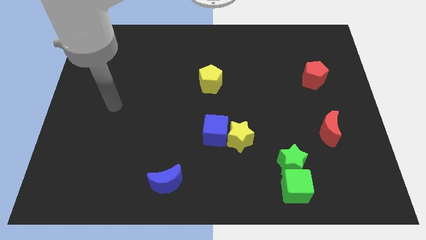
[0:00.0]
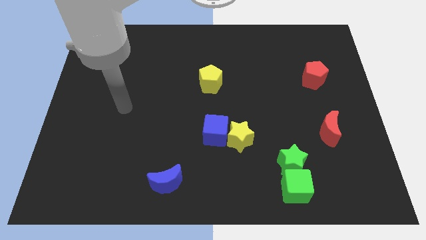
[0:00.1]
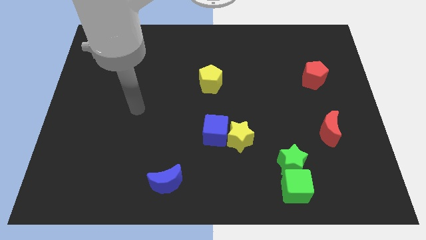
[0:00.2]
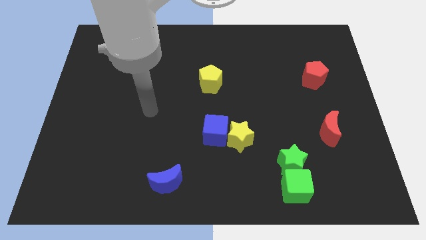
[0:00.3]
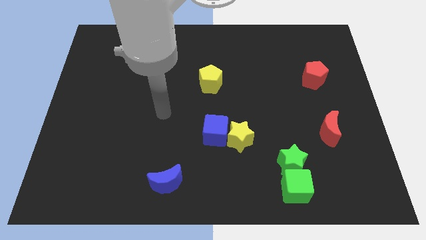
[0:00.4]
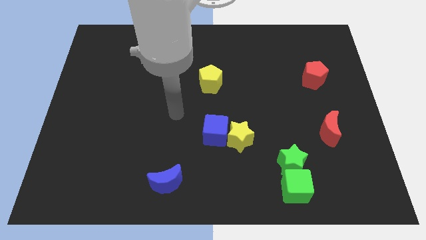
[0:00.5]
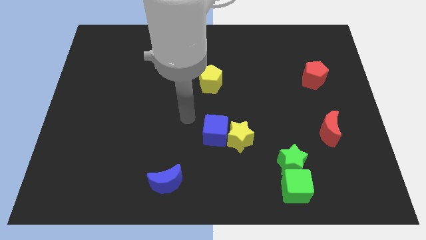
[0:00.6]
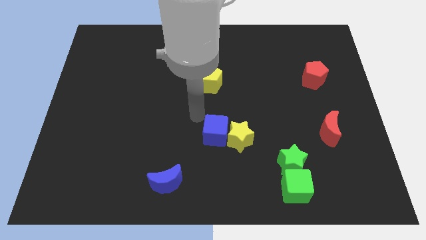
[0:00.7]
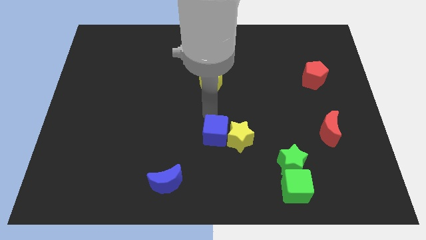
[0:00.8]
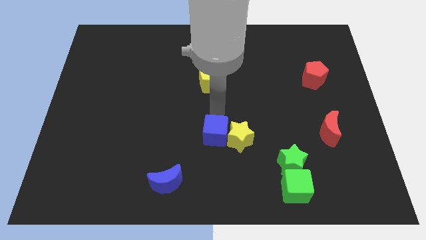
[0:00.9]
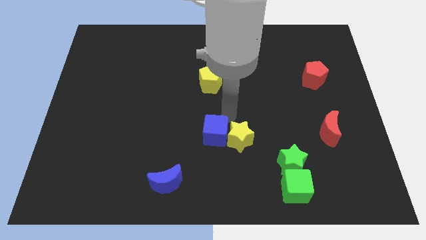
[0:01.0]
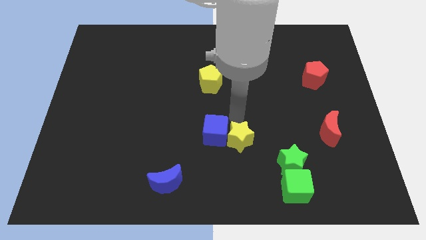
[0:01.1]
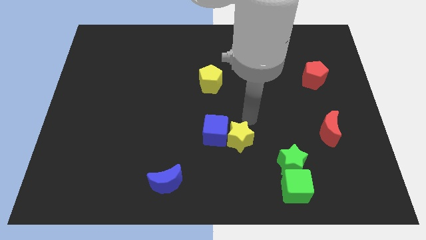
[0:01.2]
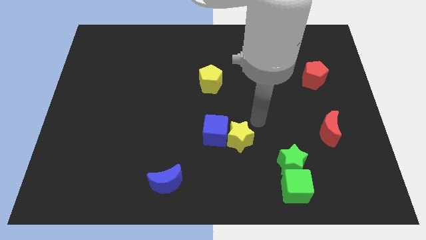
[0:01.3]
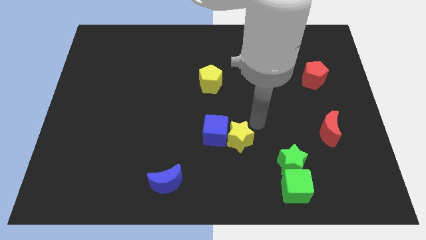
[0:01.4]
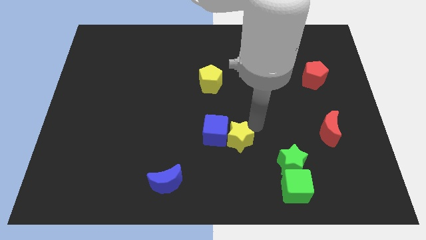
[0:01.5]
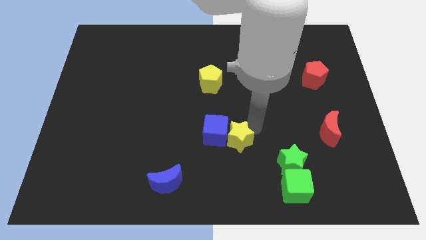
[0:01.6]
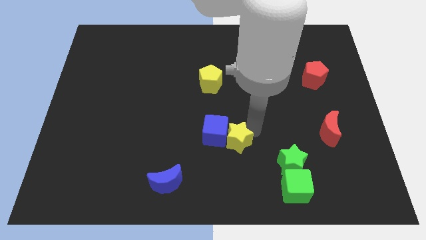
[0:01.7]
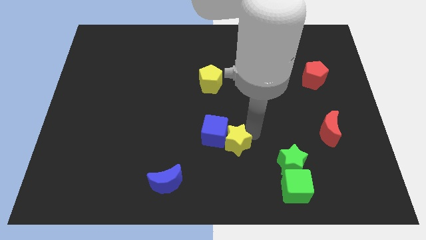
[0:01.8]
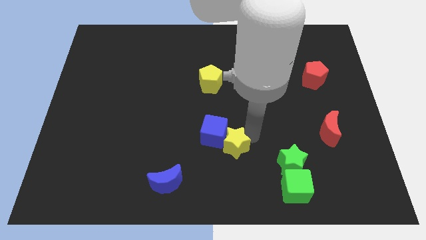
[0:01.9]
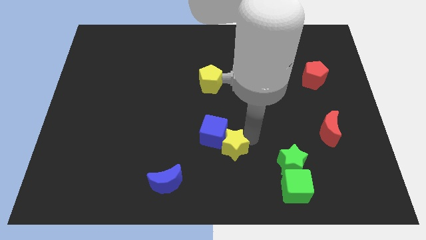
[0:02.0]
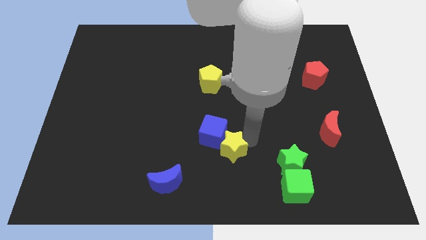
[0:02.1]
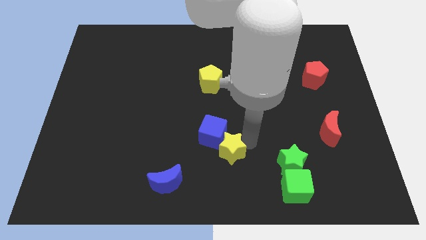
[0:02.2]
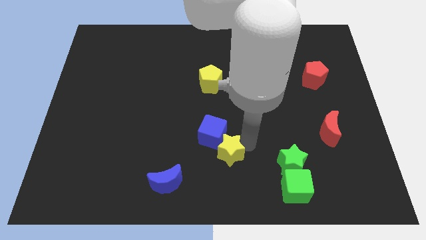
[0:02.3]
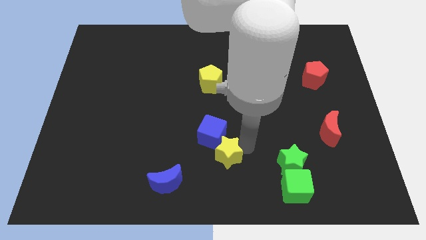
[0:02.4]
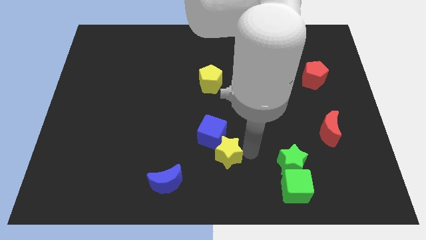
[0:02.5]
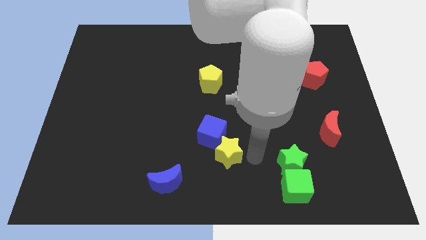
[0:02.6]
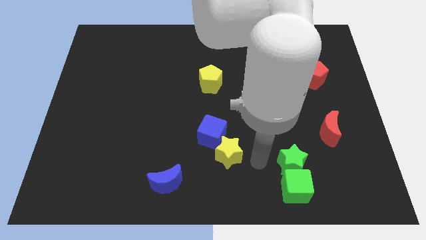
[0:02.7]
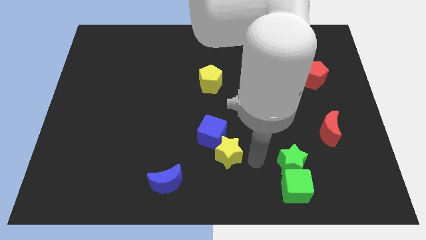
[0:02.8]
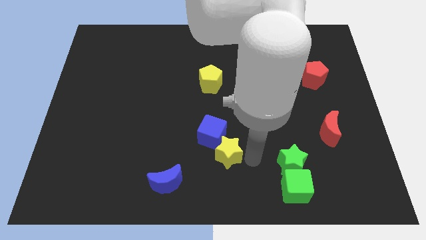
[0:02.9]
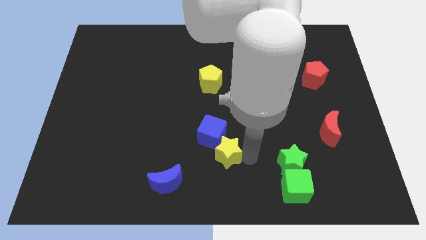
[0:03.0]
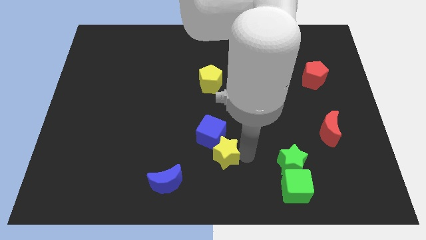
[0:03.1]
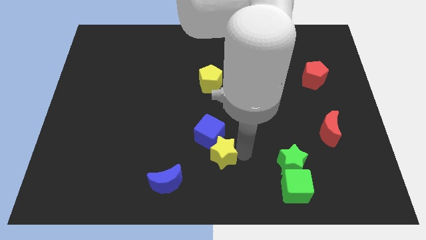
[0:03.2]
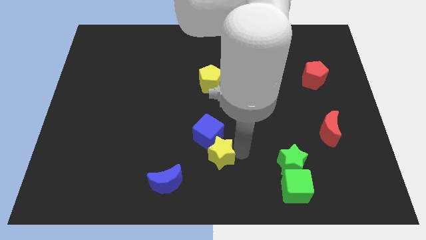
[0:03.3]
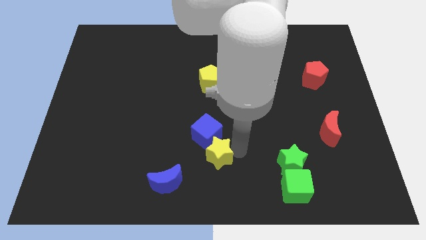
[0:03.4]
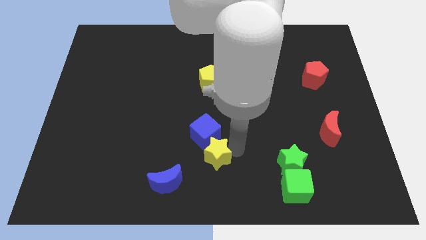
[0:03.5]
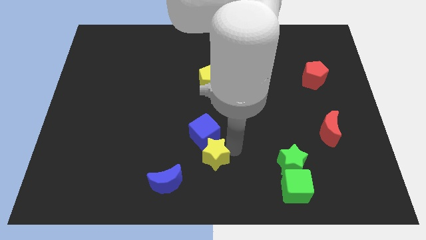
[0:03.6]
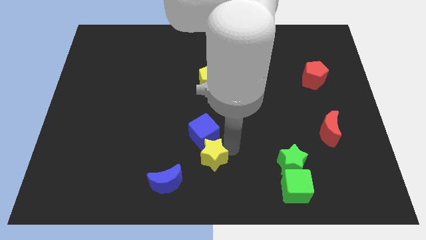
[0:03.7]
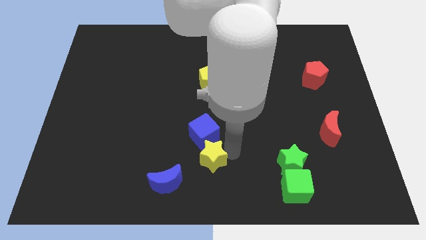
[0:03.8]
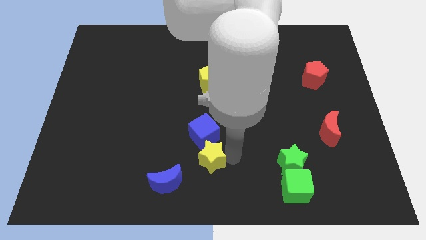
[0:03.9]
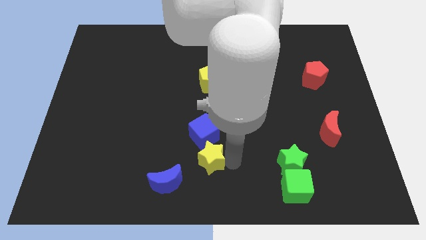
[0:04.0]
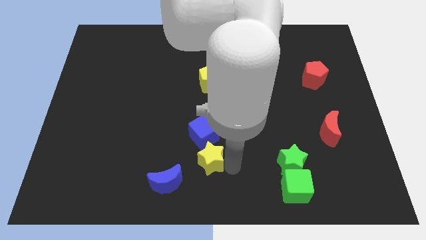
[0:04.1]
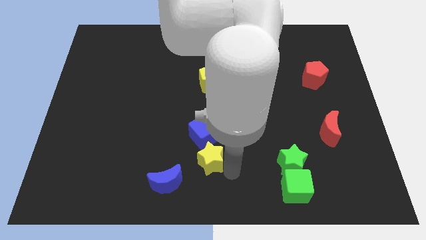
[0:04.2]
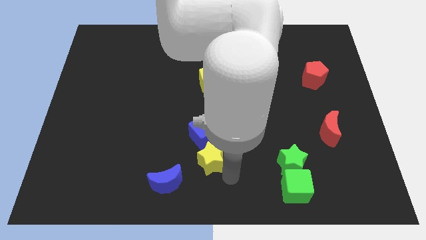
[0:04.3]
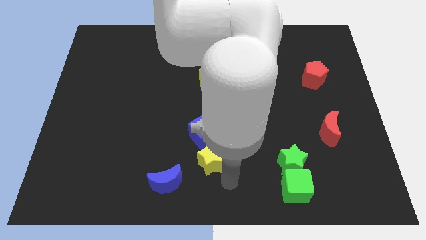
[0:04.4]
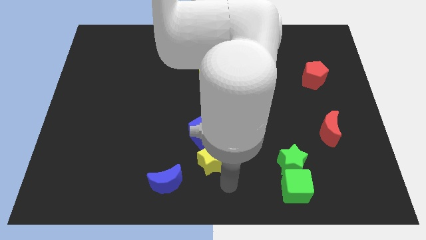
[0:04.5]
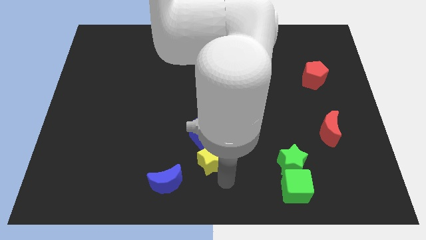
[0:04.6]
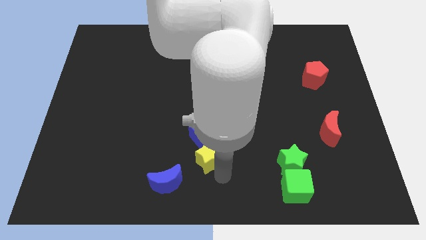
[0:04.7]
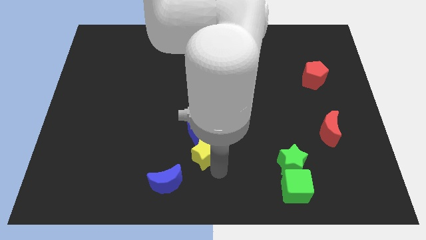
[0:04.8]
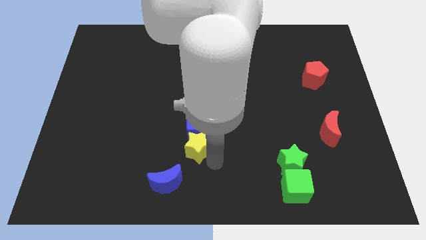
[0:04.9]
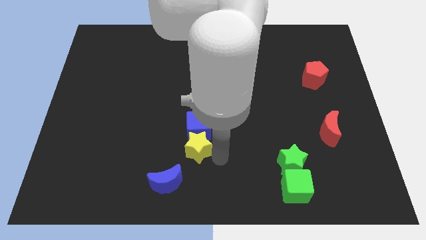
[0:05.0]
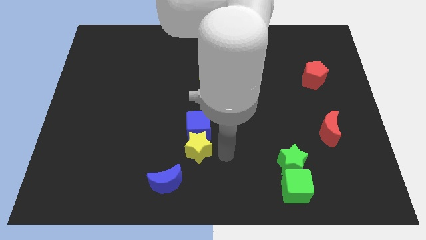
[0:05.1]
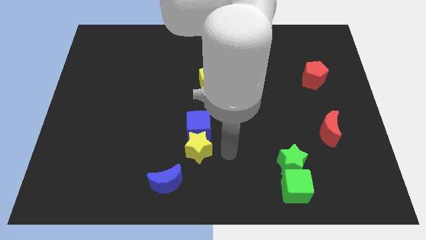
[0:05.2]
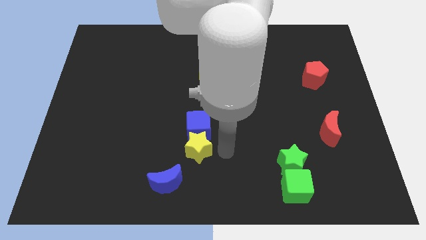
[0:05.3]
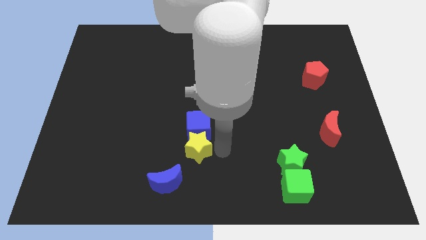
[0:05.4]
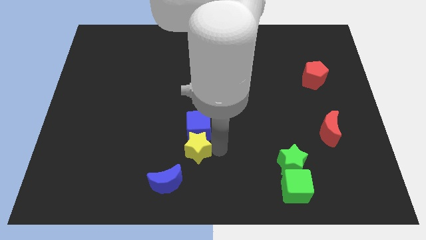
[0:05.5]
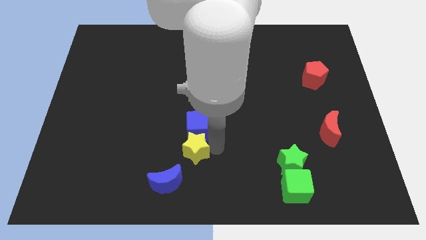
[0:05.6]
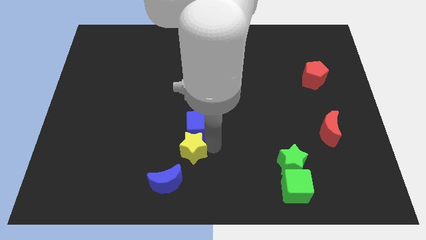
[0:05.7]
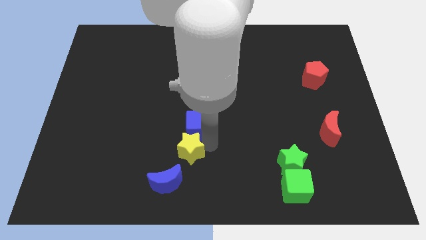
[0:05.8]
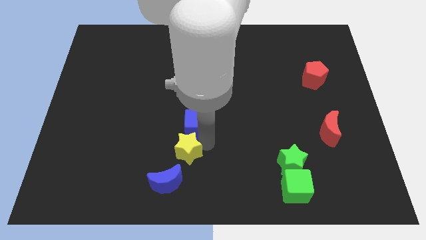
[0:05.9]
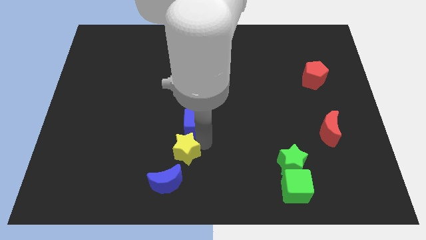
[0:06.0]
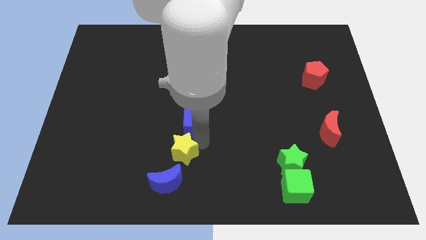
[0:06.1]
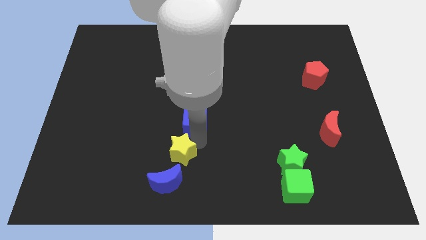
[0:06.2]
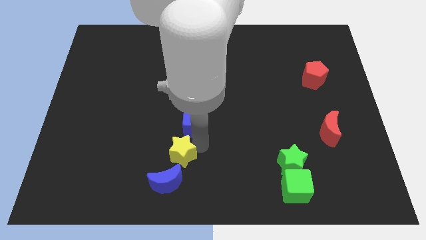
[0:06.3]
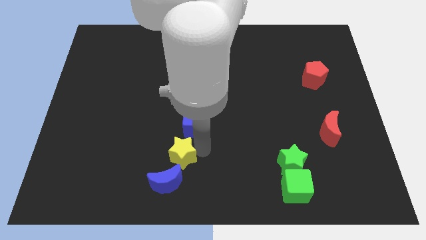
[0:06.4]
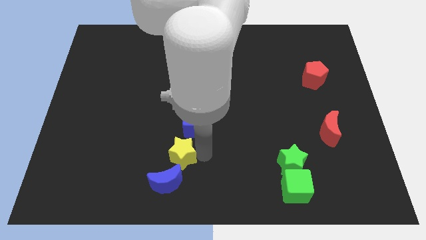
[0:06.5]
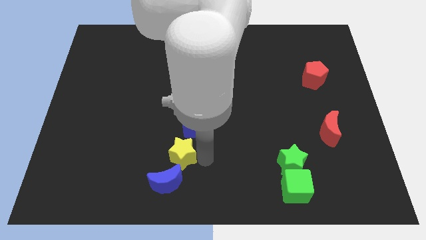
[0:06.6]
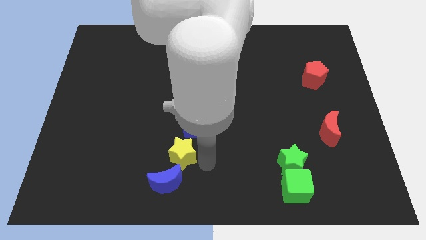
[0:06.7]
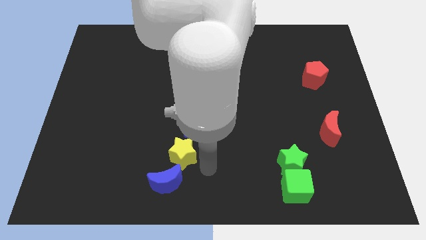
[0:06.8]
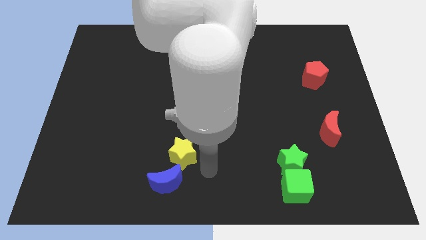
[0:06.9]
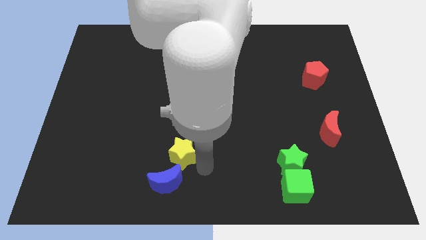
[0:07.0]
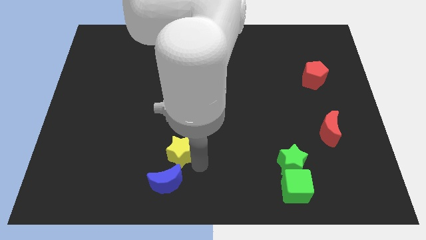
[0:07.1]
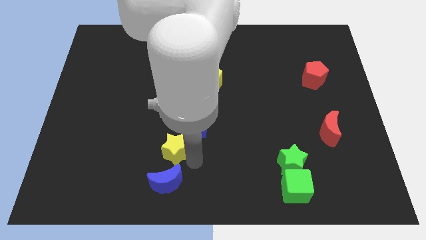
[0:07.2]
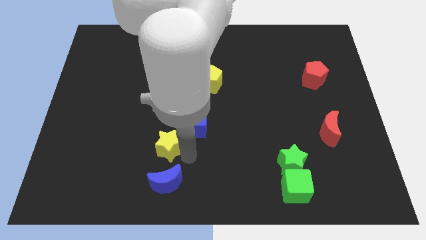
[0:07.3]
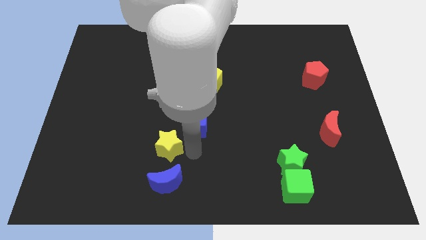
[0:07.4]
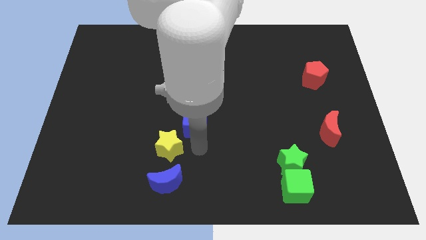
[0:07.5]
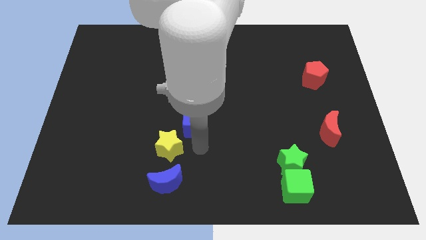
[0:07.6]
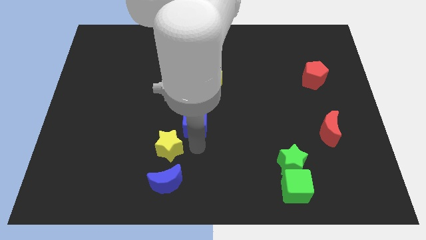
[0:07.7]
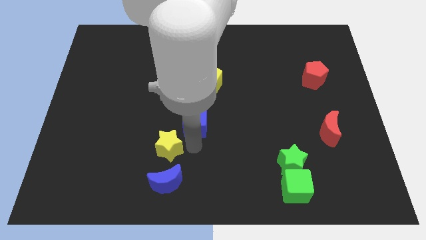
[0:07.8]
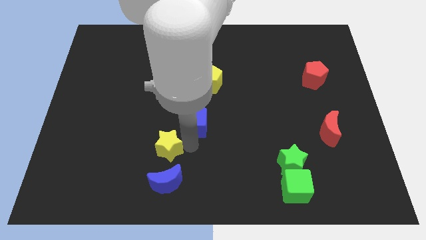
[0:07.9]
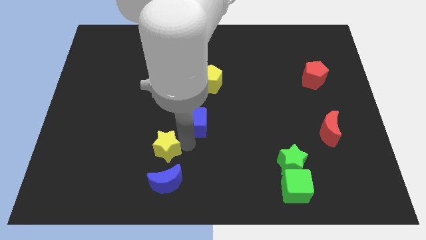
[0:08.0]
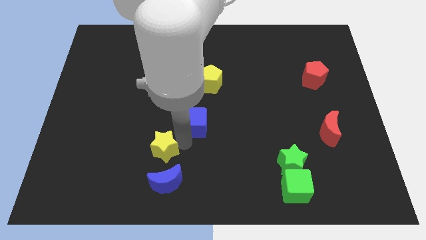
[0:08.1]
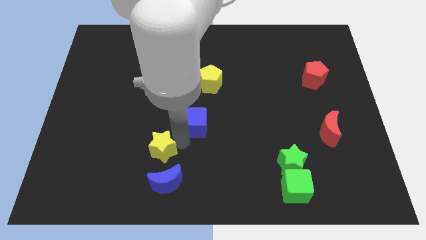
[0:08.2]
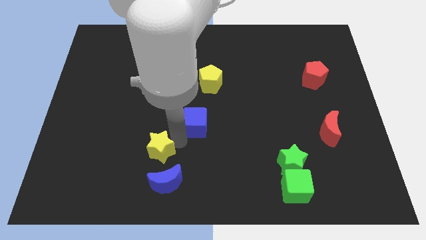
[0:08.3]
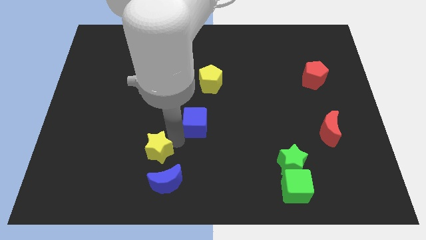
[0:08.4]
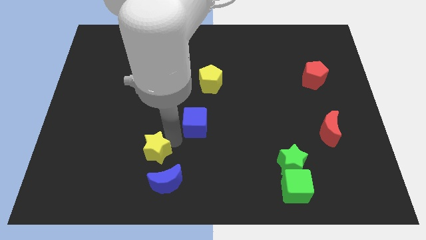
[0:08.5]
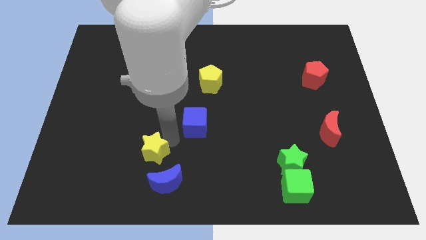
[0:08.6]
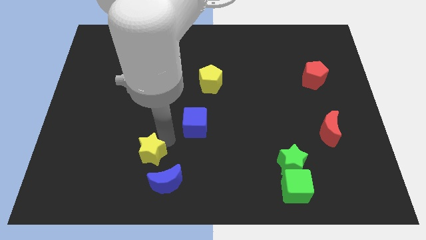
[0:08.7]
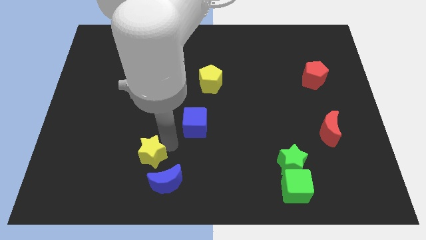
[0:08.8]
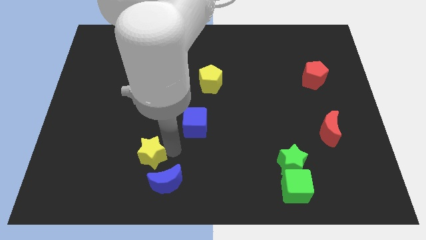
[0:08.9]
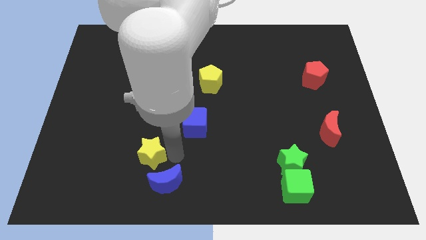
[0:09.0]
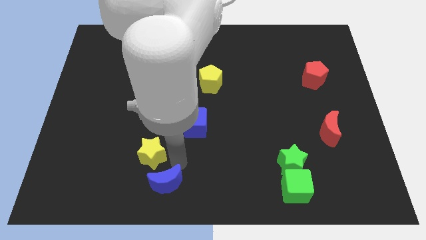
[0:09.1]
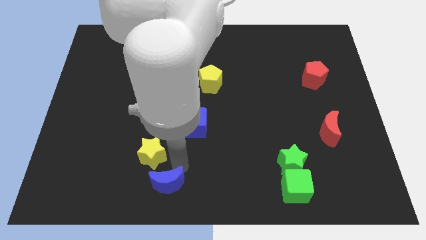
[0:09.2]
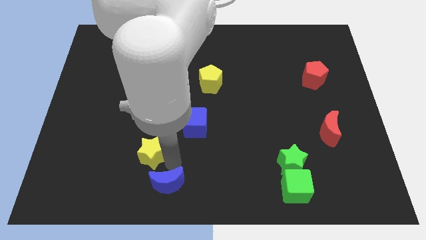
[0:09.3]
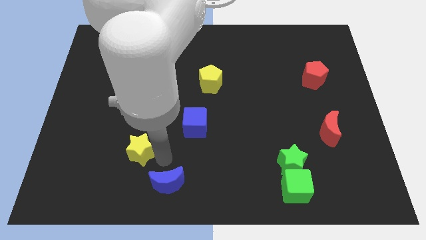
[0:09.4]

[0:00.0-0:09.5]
slide the yellow star to the left
